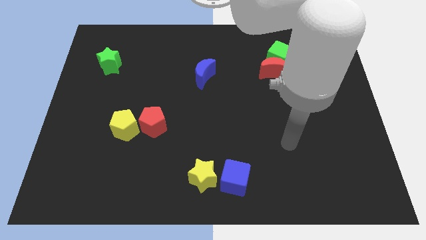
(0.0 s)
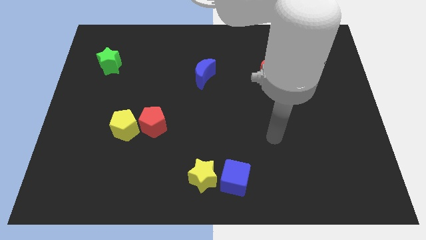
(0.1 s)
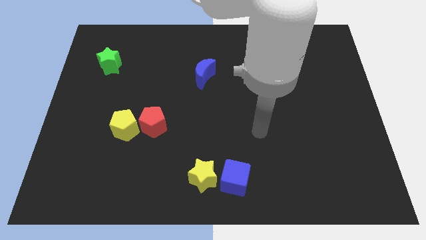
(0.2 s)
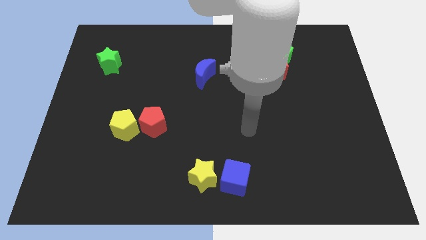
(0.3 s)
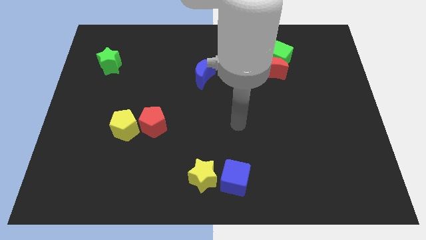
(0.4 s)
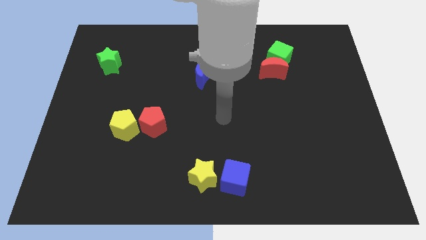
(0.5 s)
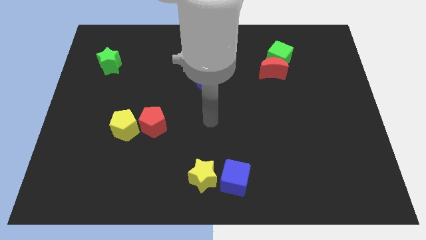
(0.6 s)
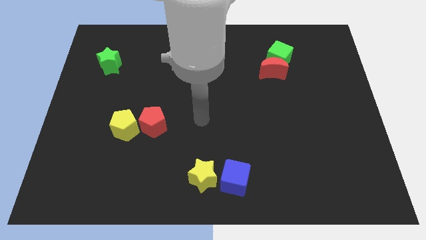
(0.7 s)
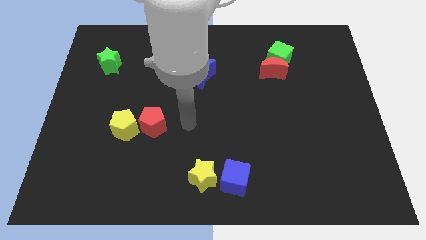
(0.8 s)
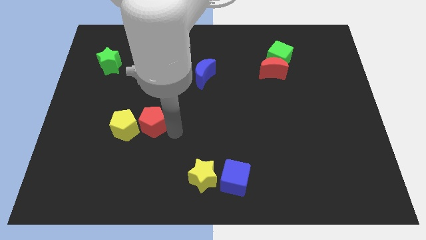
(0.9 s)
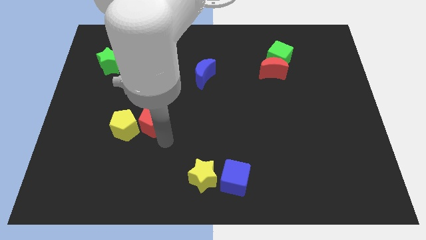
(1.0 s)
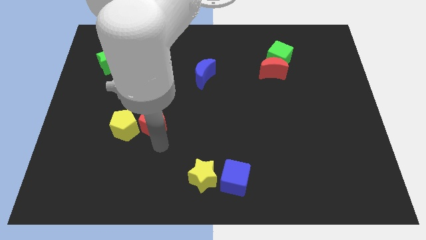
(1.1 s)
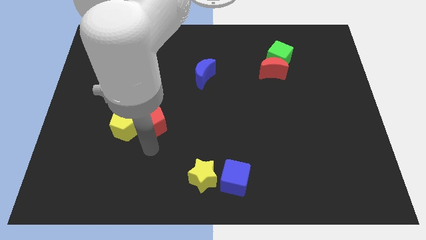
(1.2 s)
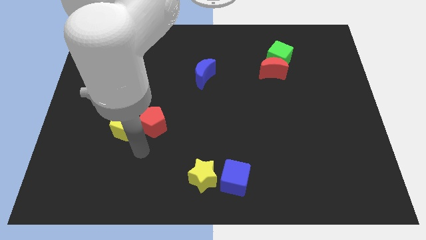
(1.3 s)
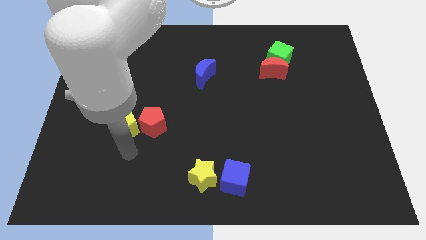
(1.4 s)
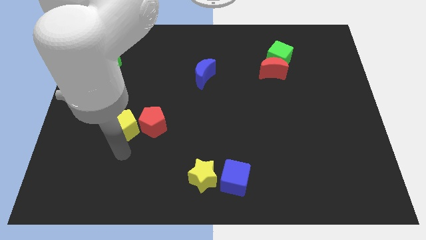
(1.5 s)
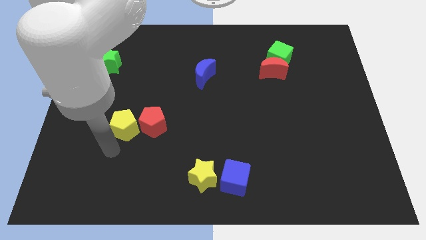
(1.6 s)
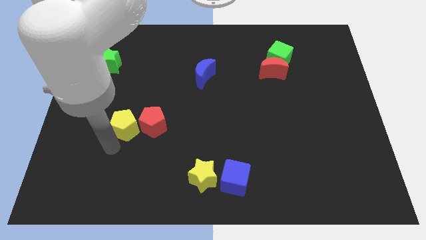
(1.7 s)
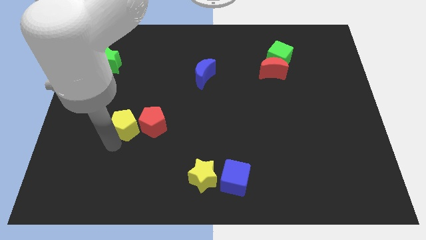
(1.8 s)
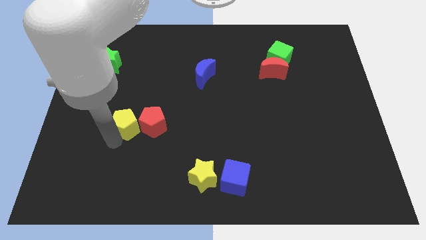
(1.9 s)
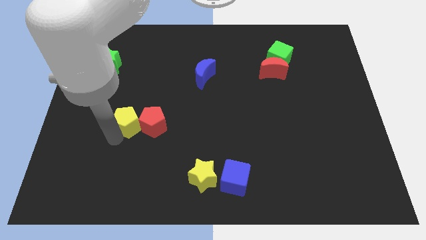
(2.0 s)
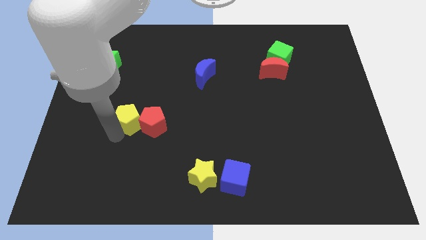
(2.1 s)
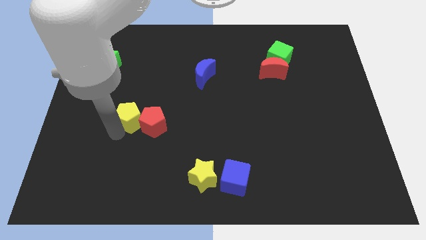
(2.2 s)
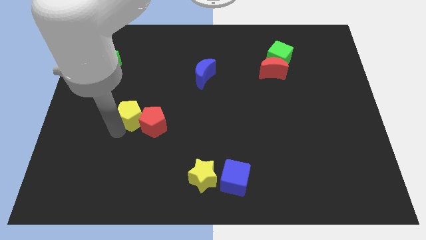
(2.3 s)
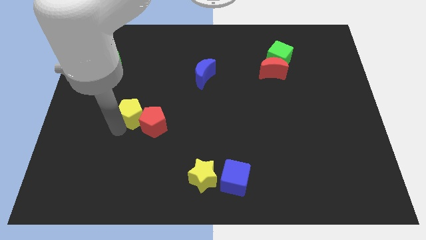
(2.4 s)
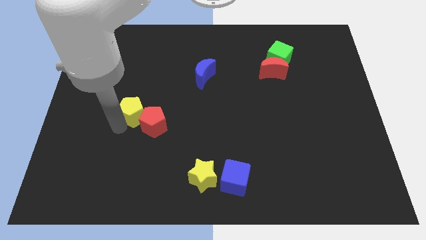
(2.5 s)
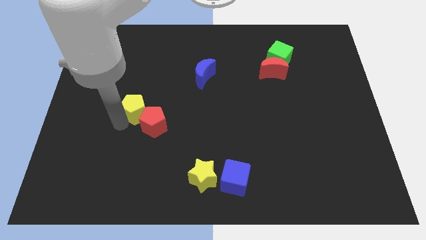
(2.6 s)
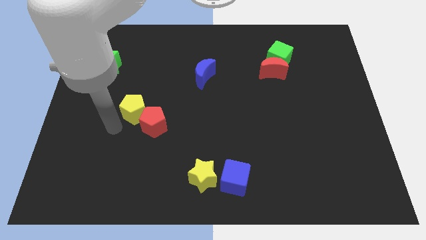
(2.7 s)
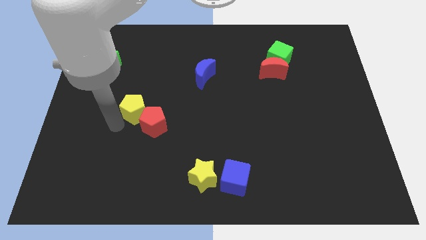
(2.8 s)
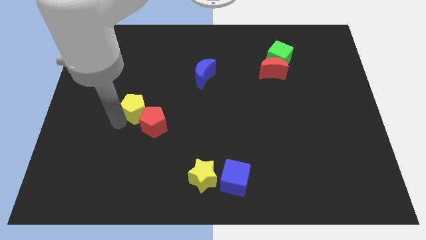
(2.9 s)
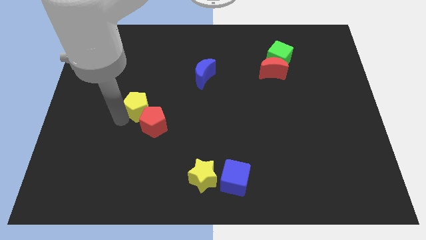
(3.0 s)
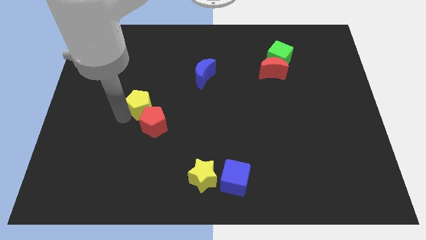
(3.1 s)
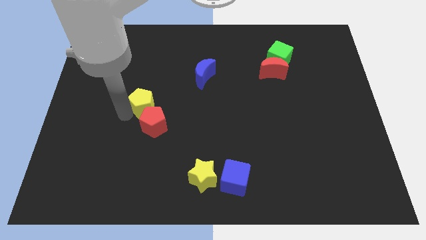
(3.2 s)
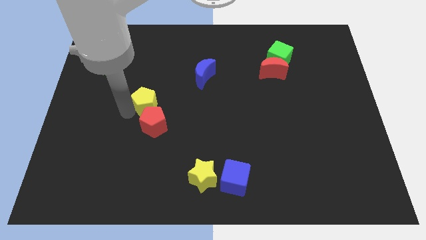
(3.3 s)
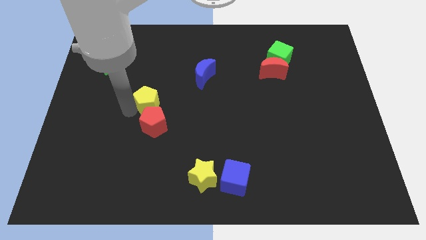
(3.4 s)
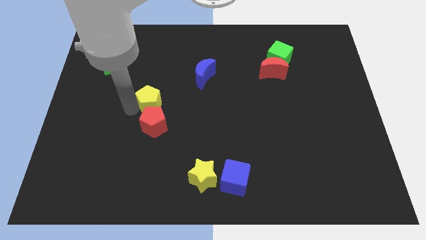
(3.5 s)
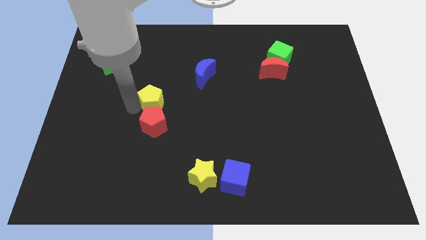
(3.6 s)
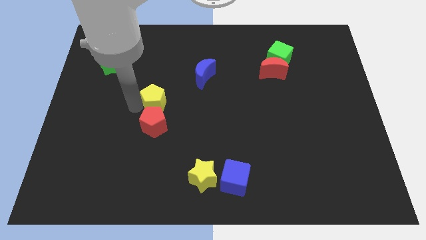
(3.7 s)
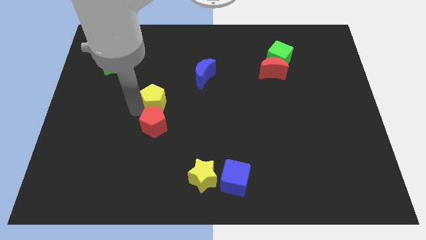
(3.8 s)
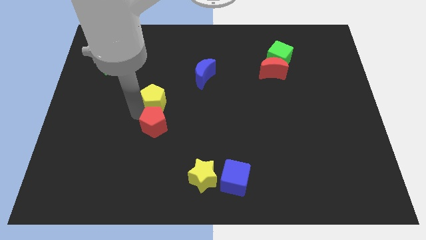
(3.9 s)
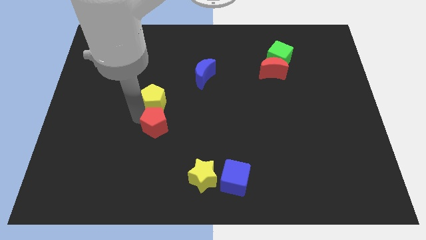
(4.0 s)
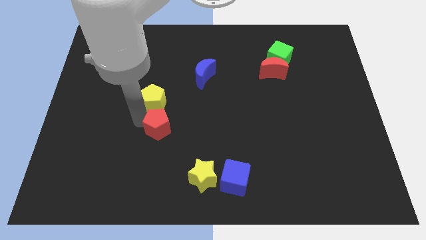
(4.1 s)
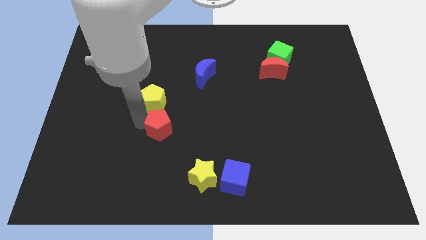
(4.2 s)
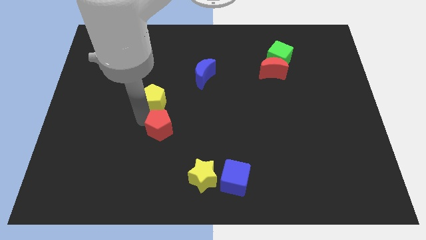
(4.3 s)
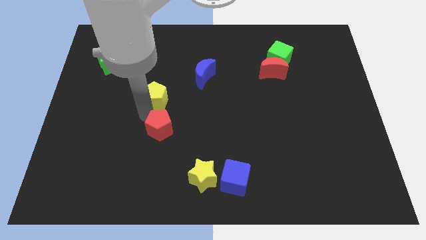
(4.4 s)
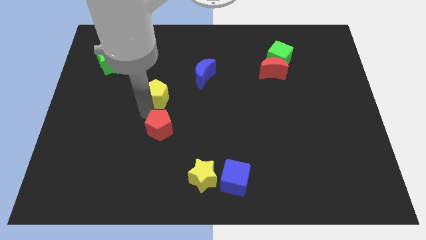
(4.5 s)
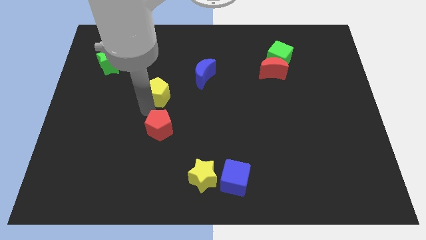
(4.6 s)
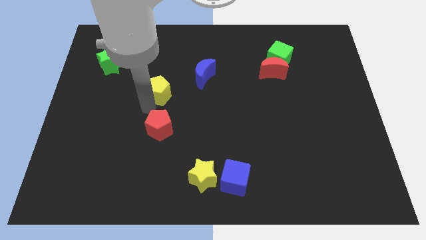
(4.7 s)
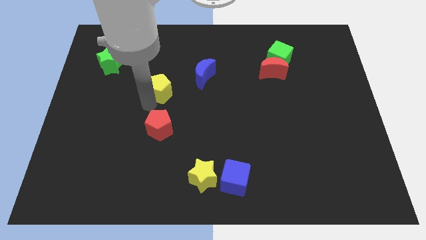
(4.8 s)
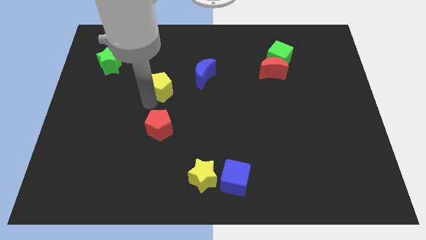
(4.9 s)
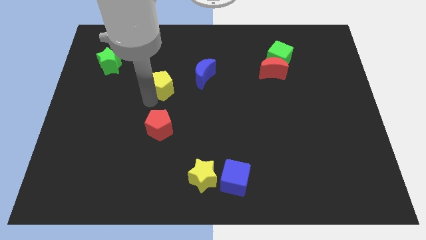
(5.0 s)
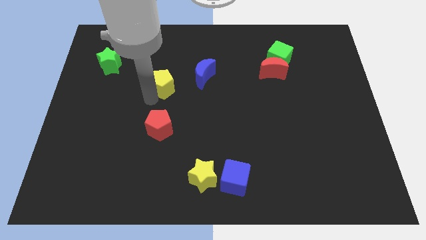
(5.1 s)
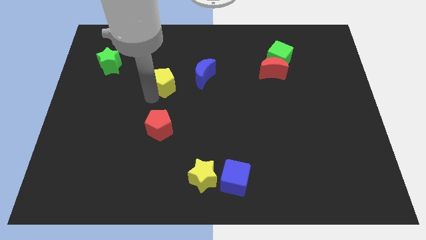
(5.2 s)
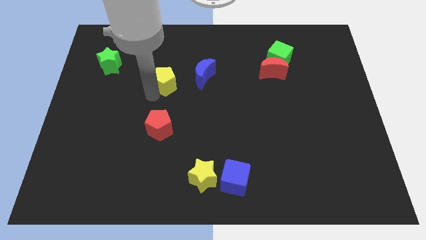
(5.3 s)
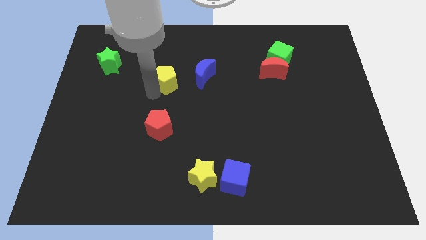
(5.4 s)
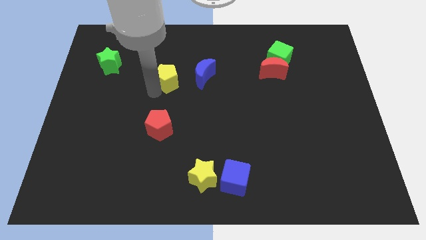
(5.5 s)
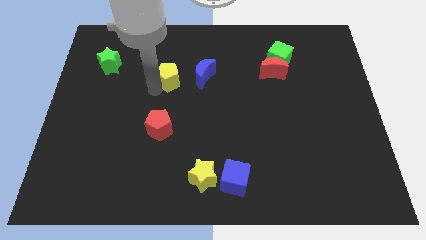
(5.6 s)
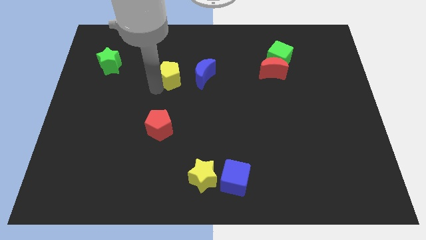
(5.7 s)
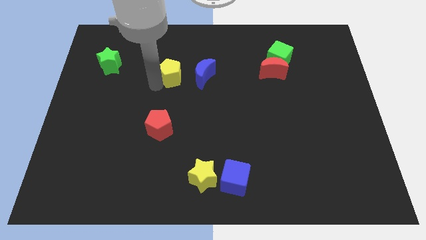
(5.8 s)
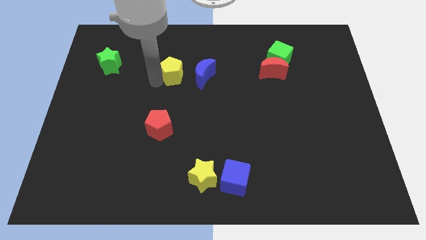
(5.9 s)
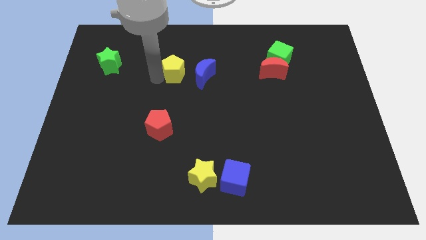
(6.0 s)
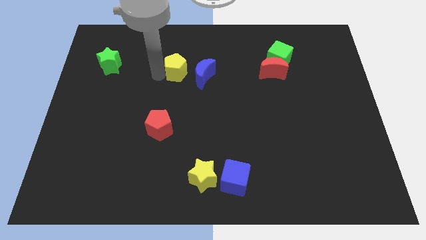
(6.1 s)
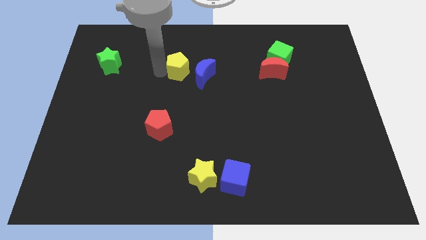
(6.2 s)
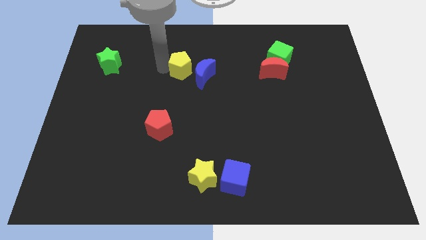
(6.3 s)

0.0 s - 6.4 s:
put the yellow pentagon next to the blue moon

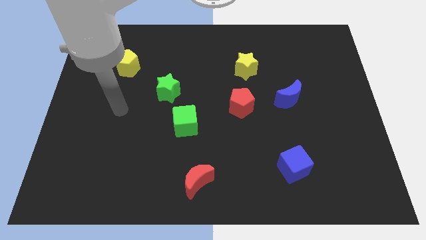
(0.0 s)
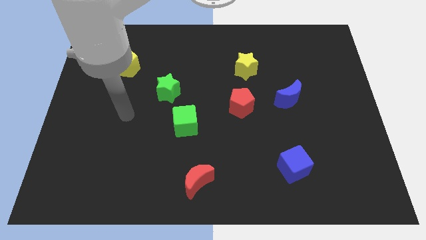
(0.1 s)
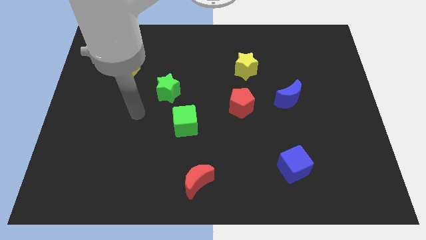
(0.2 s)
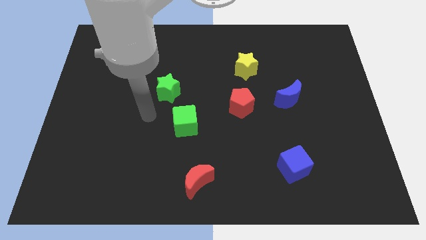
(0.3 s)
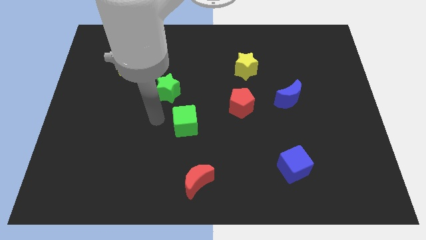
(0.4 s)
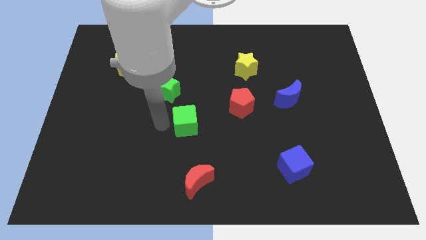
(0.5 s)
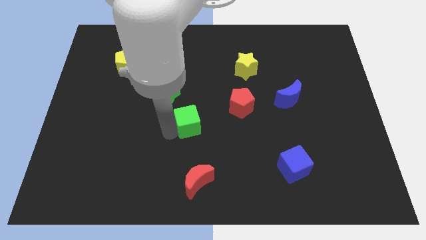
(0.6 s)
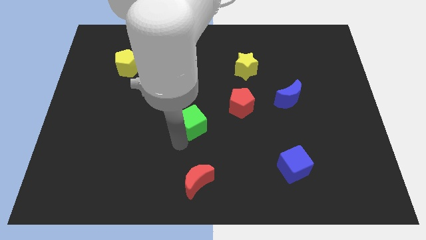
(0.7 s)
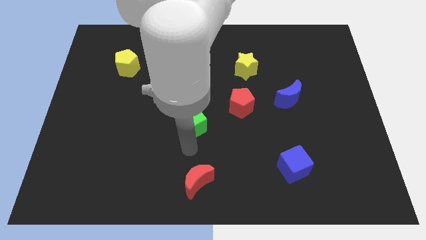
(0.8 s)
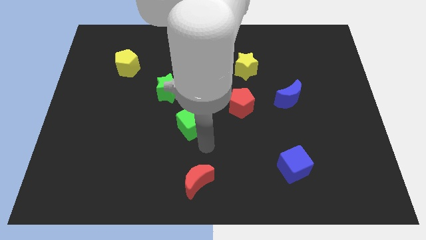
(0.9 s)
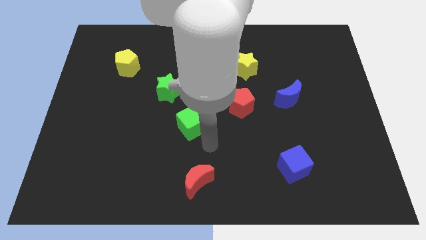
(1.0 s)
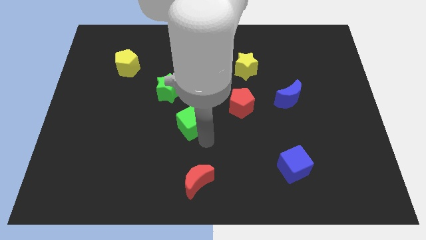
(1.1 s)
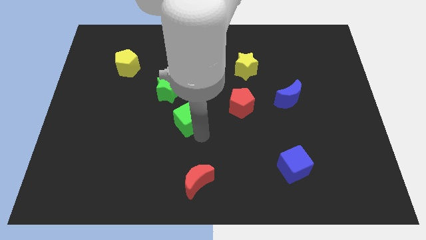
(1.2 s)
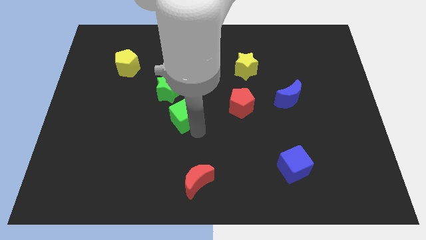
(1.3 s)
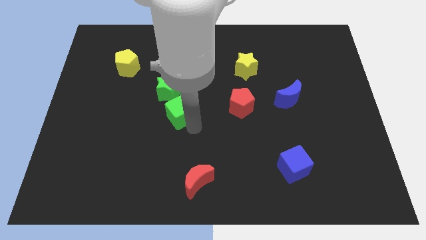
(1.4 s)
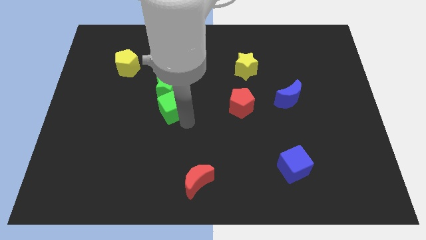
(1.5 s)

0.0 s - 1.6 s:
put the green cube to the green star
